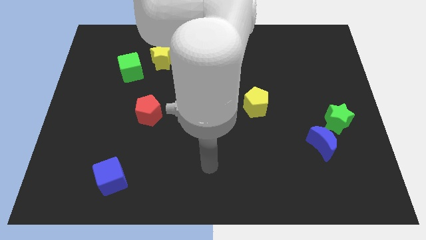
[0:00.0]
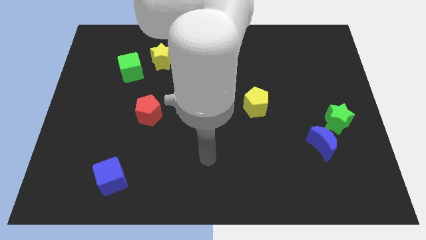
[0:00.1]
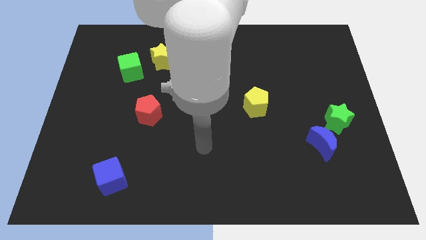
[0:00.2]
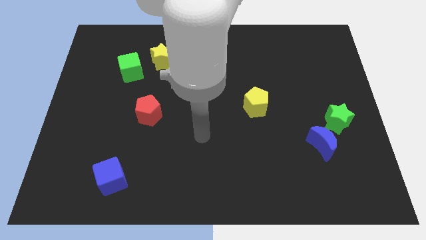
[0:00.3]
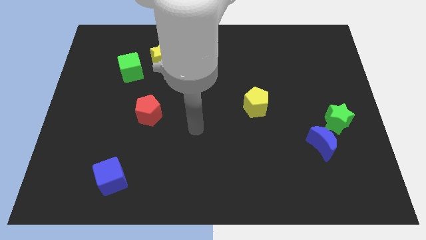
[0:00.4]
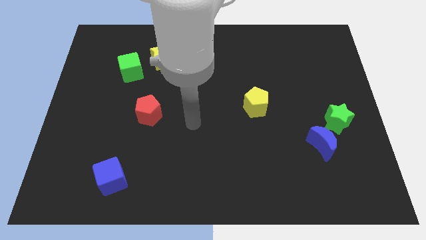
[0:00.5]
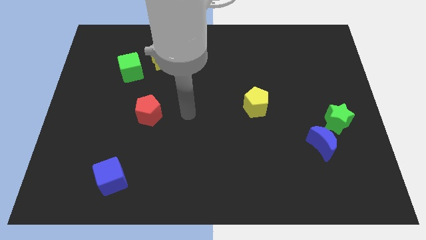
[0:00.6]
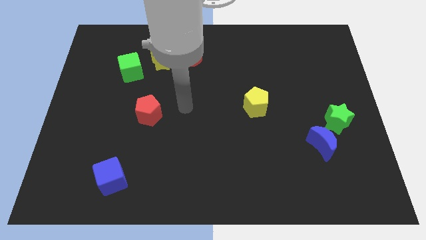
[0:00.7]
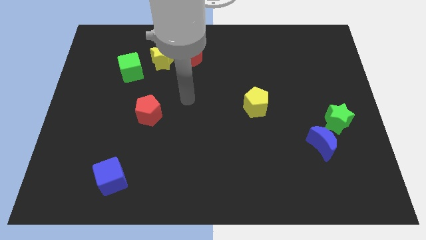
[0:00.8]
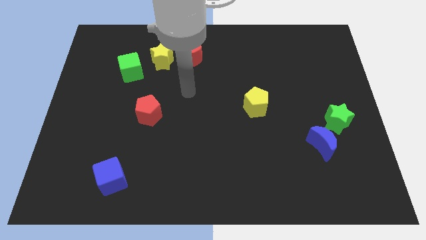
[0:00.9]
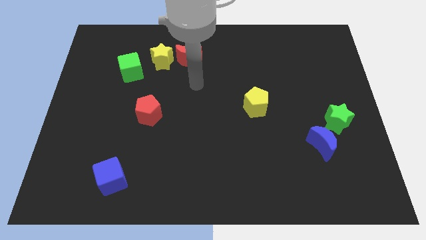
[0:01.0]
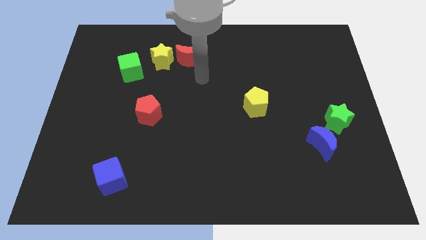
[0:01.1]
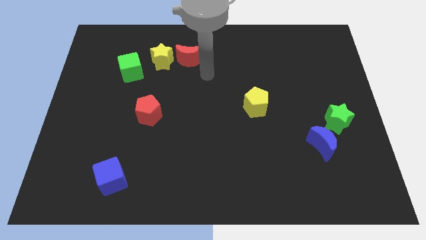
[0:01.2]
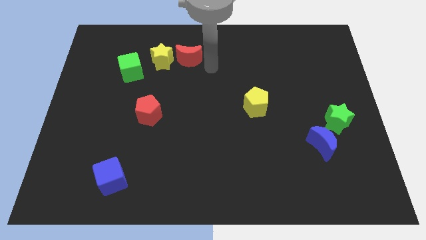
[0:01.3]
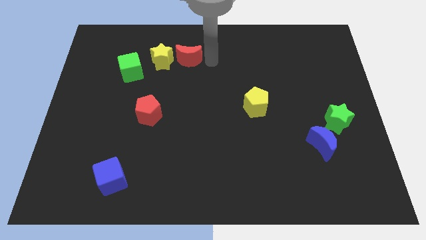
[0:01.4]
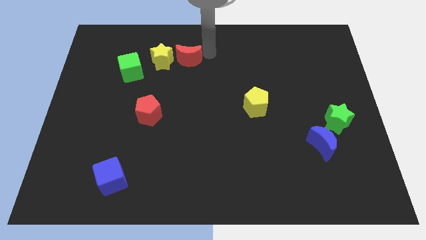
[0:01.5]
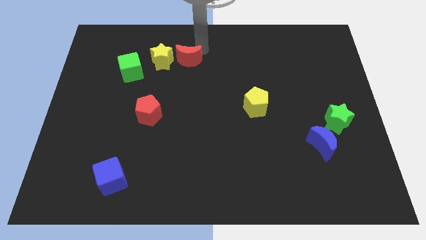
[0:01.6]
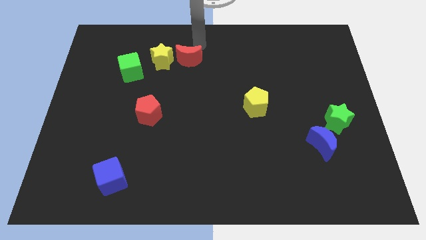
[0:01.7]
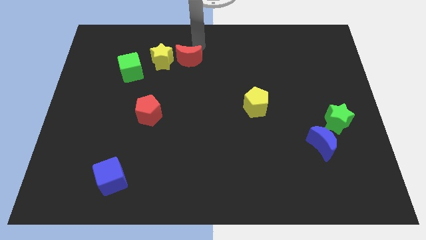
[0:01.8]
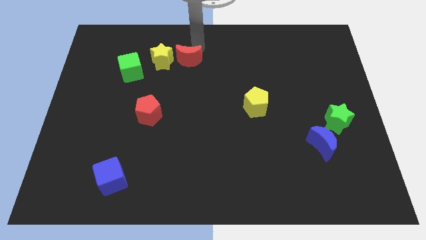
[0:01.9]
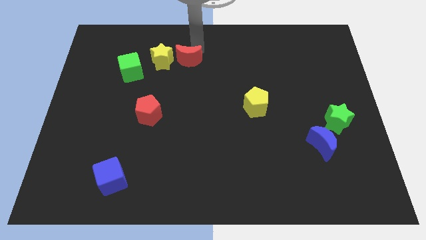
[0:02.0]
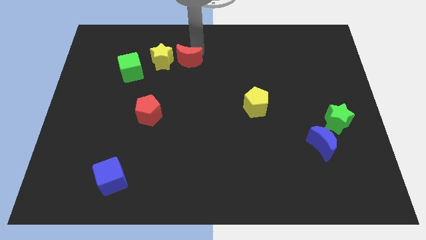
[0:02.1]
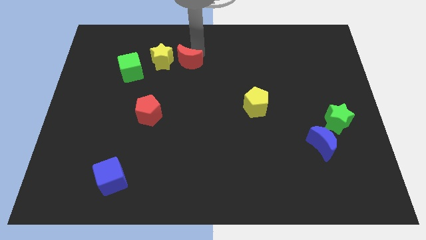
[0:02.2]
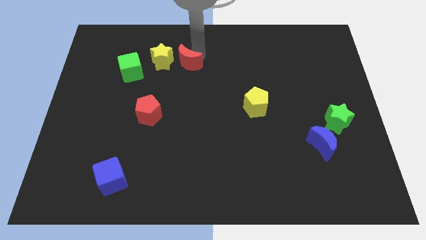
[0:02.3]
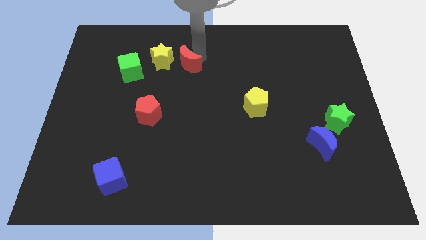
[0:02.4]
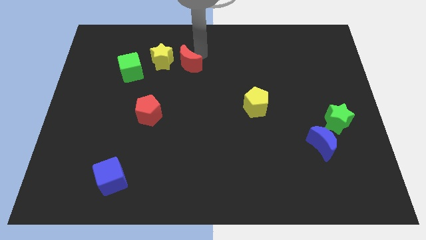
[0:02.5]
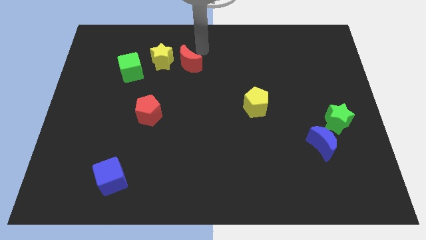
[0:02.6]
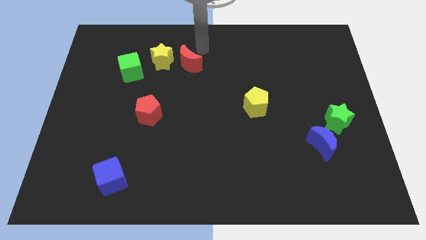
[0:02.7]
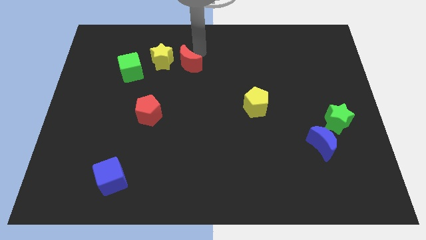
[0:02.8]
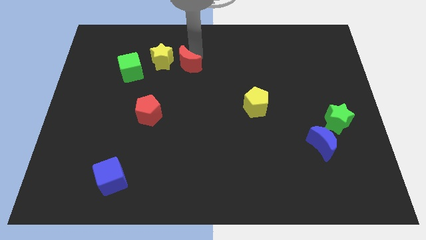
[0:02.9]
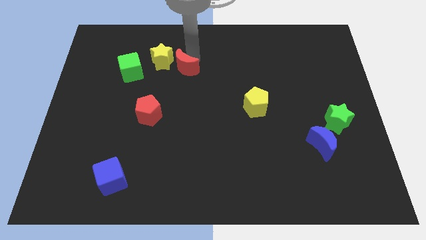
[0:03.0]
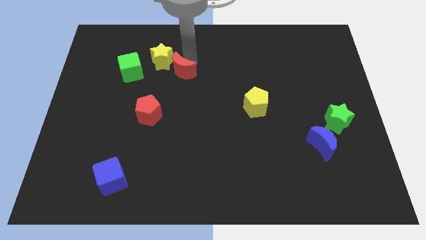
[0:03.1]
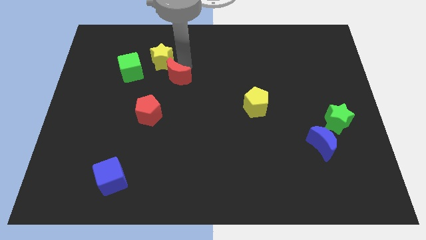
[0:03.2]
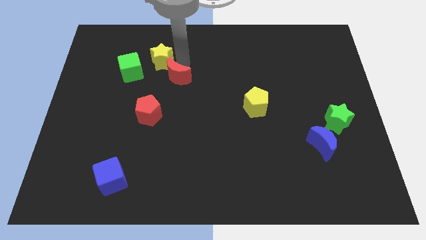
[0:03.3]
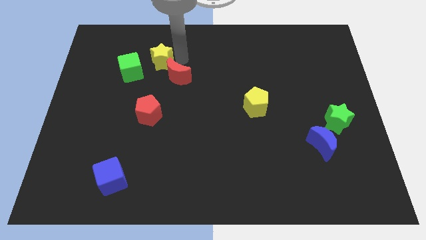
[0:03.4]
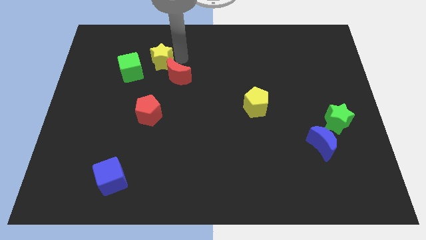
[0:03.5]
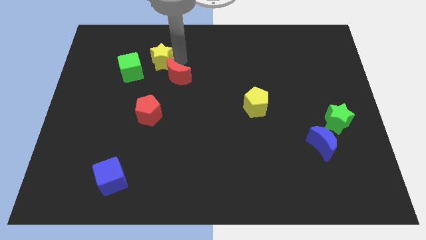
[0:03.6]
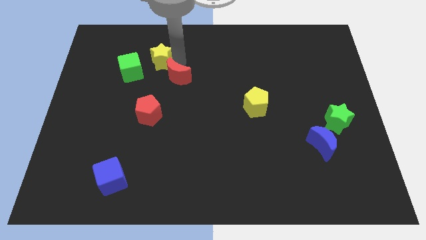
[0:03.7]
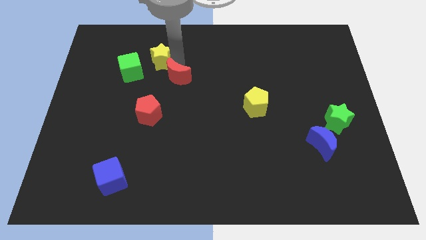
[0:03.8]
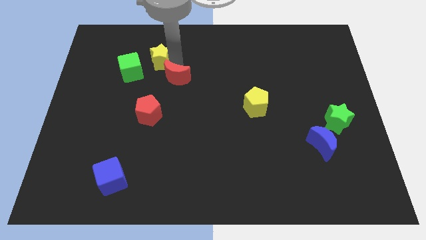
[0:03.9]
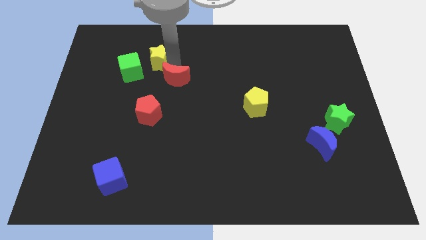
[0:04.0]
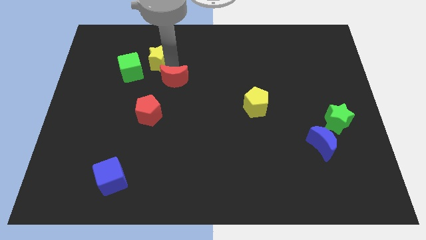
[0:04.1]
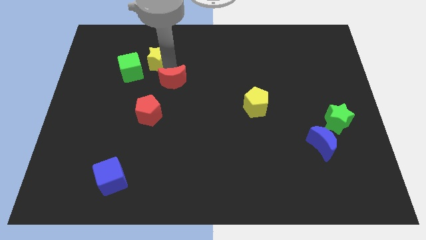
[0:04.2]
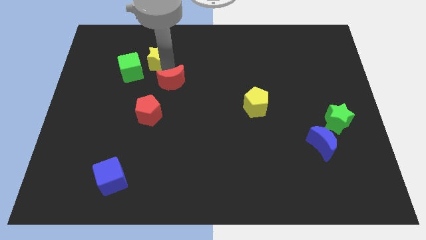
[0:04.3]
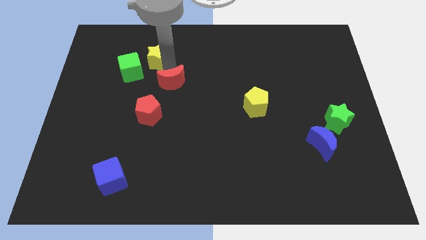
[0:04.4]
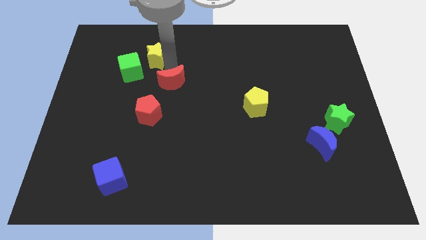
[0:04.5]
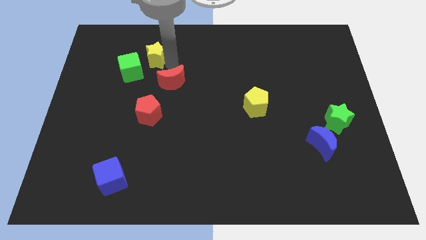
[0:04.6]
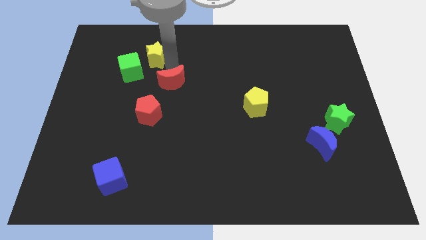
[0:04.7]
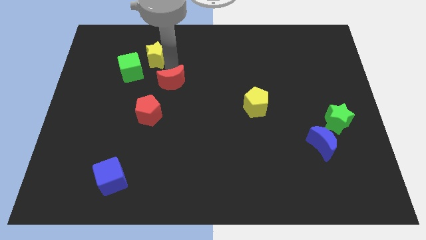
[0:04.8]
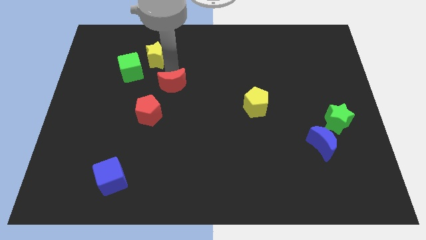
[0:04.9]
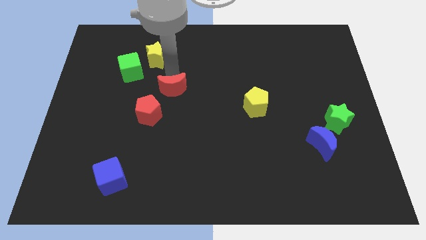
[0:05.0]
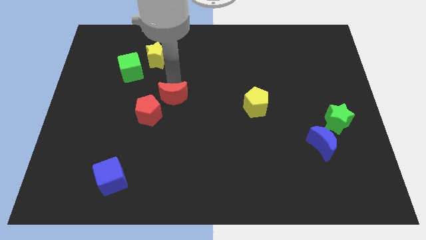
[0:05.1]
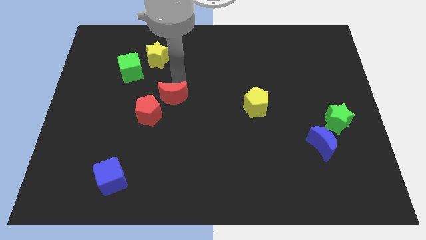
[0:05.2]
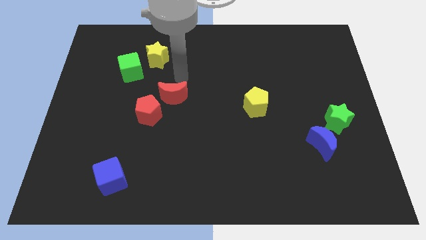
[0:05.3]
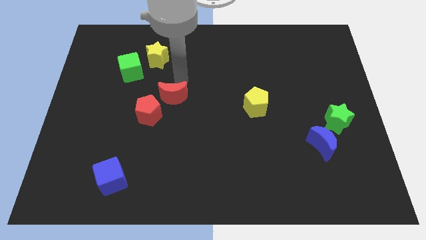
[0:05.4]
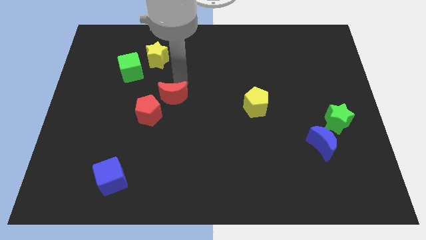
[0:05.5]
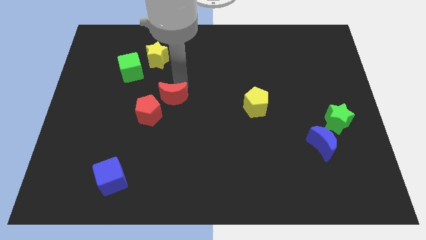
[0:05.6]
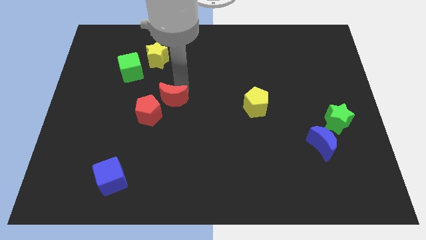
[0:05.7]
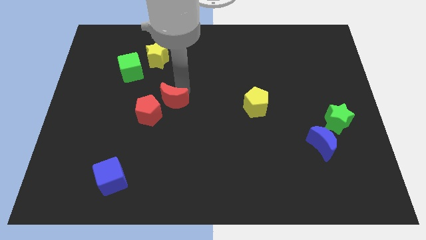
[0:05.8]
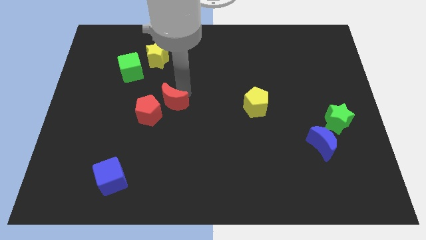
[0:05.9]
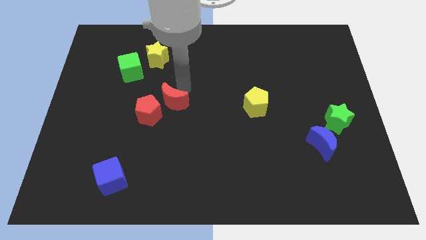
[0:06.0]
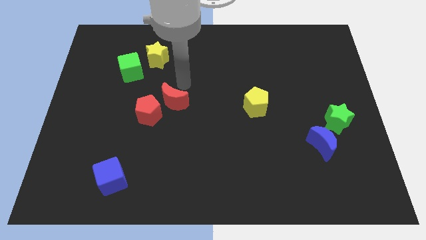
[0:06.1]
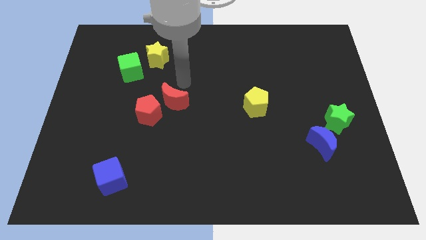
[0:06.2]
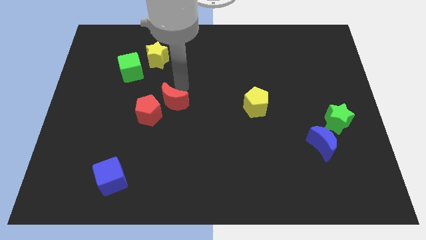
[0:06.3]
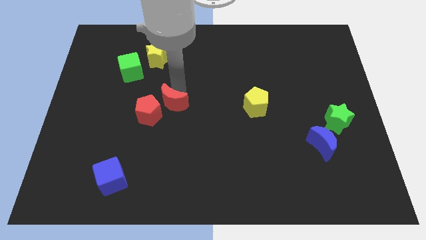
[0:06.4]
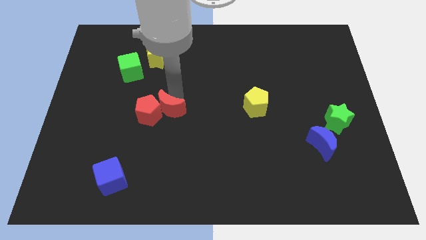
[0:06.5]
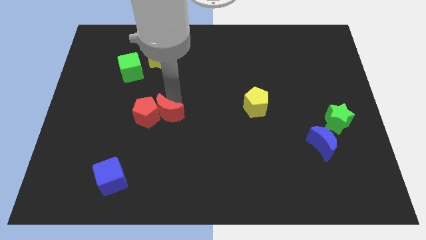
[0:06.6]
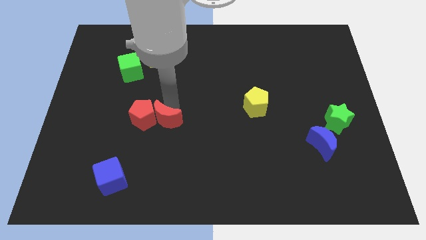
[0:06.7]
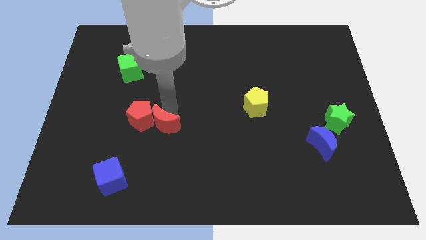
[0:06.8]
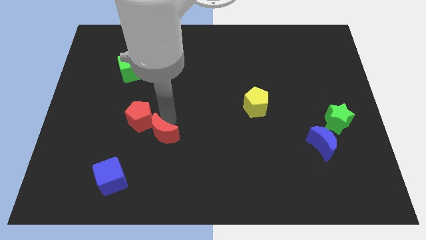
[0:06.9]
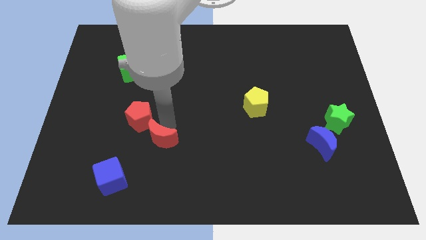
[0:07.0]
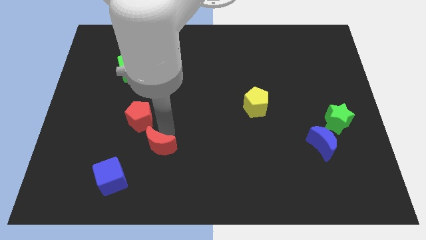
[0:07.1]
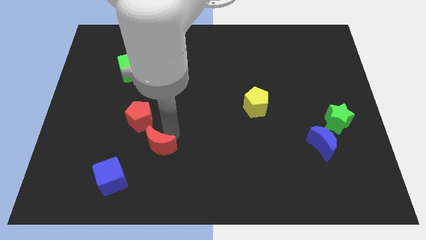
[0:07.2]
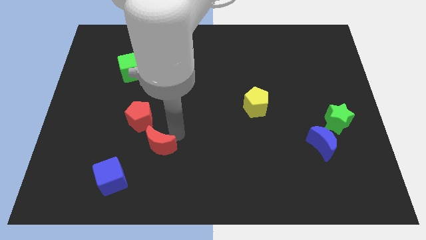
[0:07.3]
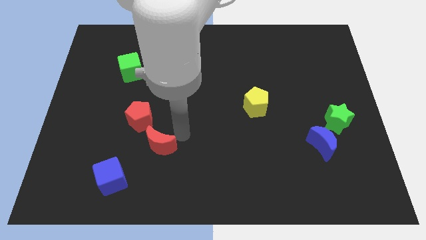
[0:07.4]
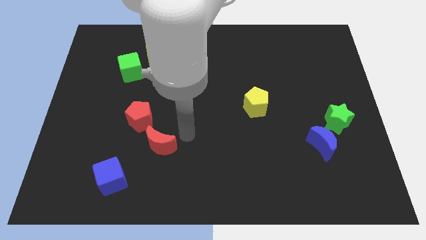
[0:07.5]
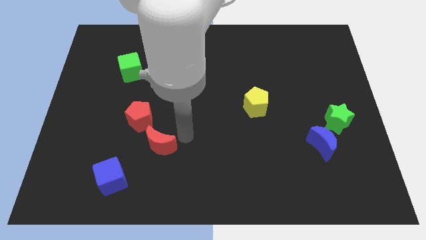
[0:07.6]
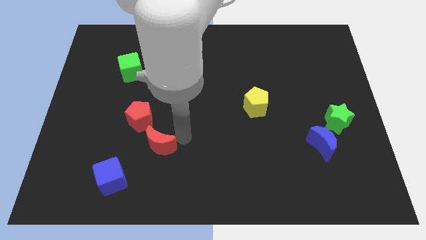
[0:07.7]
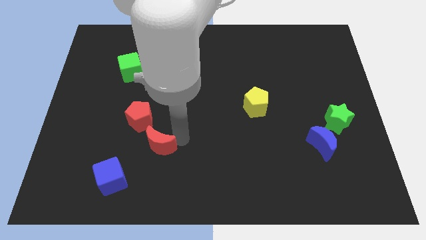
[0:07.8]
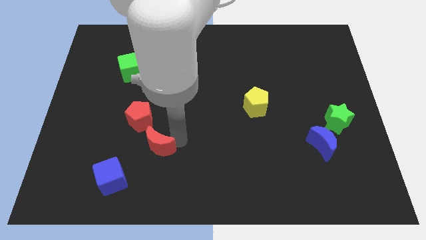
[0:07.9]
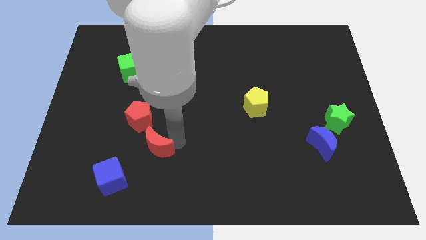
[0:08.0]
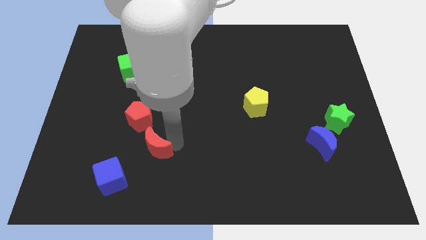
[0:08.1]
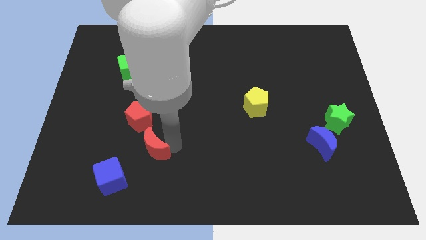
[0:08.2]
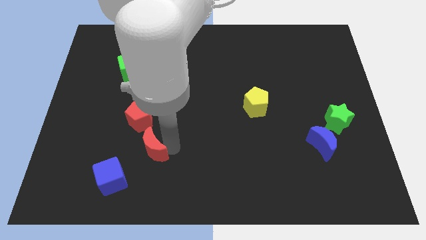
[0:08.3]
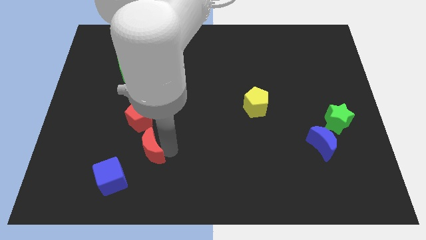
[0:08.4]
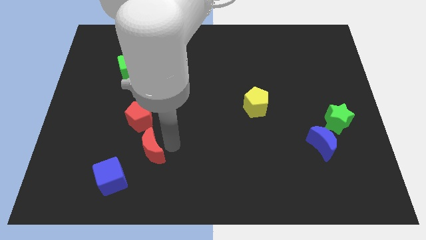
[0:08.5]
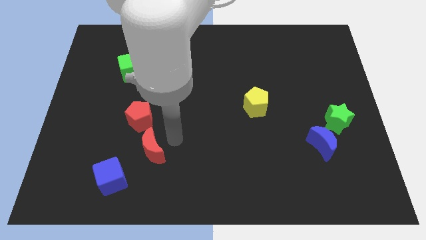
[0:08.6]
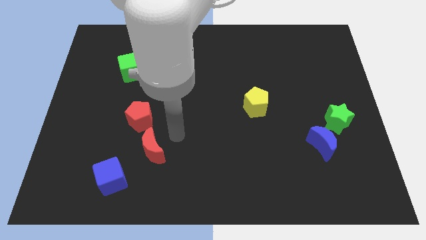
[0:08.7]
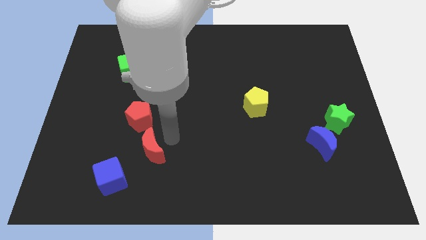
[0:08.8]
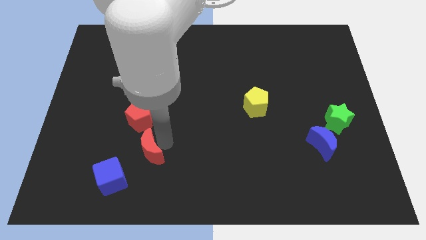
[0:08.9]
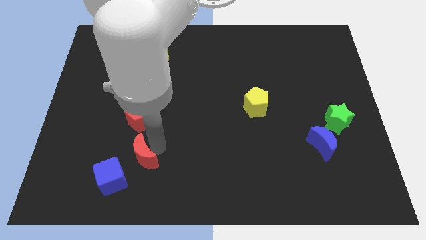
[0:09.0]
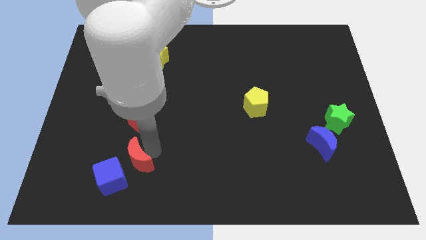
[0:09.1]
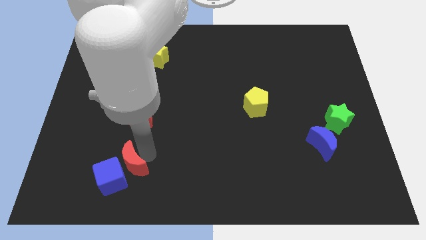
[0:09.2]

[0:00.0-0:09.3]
slide the red moon close to the blue cube
